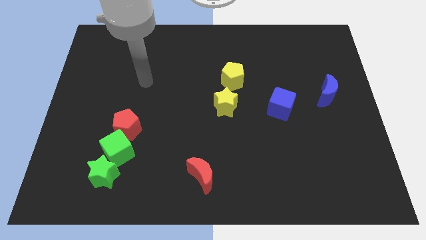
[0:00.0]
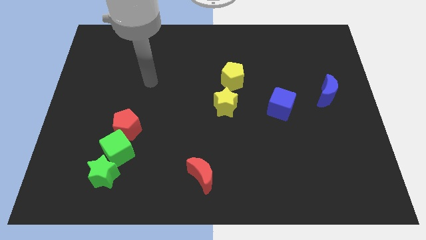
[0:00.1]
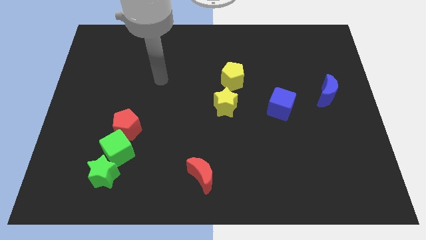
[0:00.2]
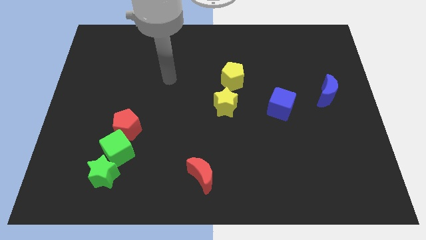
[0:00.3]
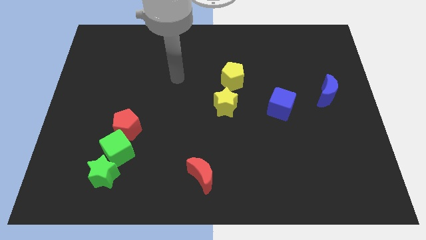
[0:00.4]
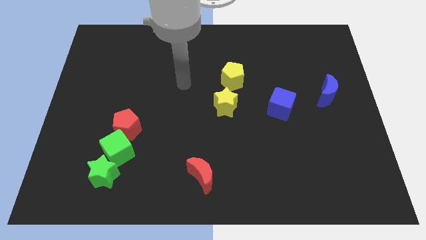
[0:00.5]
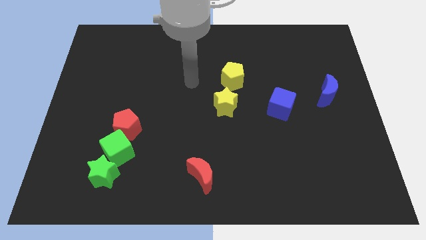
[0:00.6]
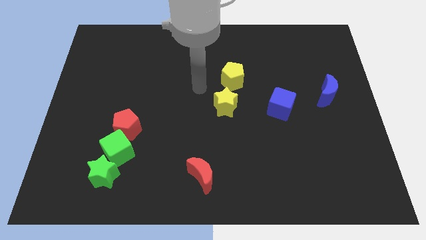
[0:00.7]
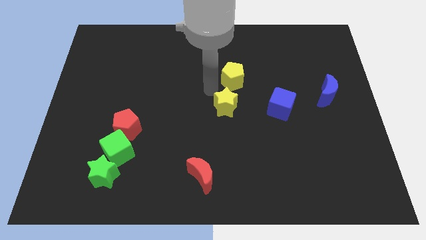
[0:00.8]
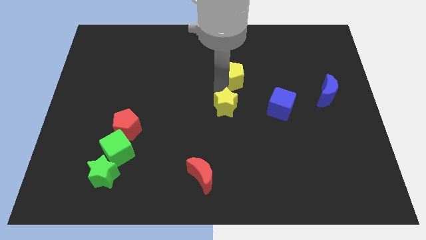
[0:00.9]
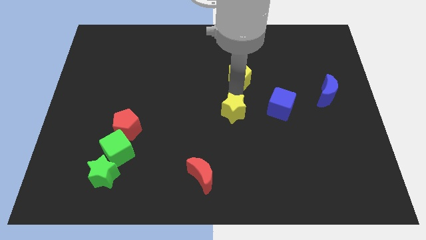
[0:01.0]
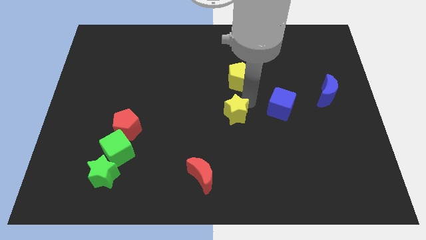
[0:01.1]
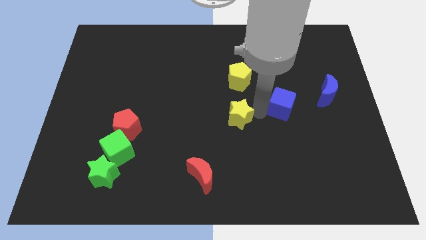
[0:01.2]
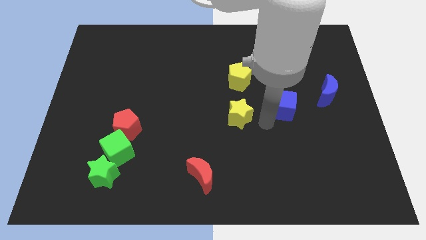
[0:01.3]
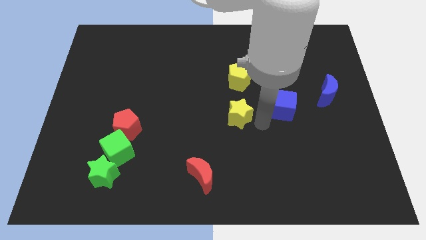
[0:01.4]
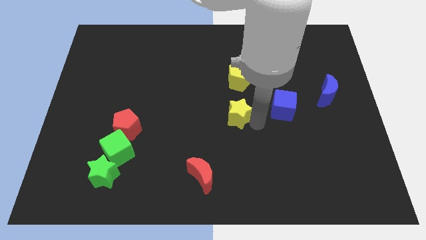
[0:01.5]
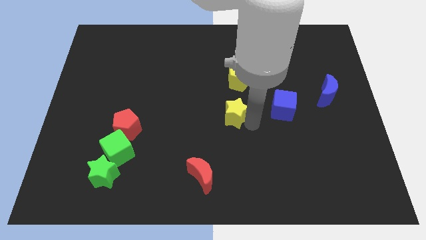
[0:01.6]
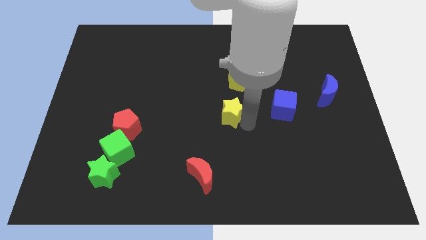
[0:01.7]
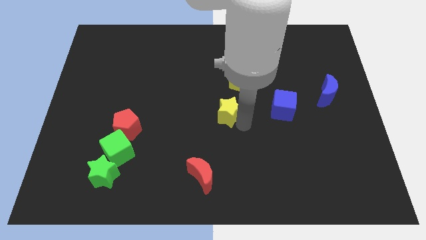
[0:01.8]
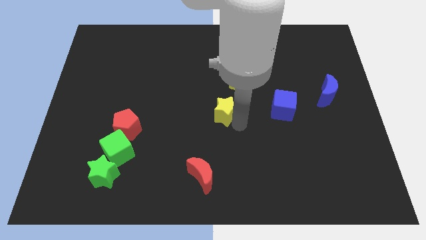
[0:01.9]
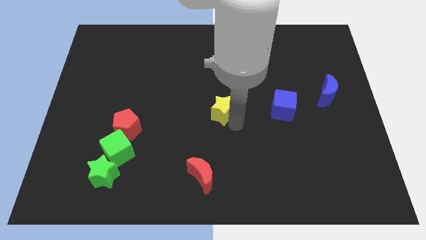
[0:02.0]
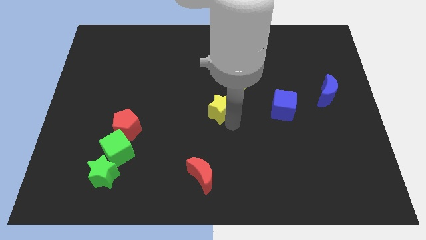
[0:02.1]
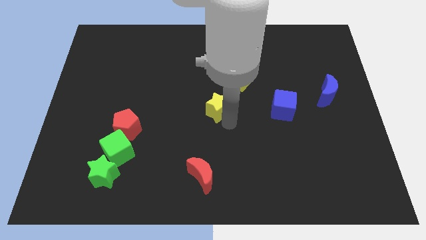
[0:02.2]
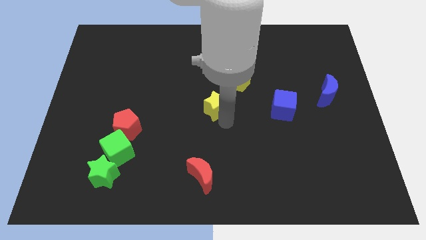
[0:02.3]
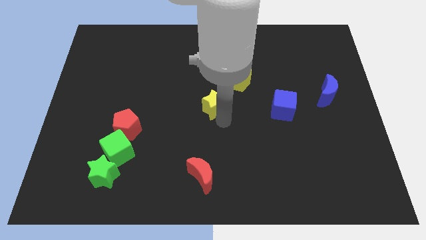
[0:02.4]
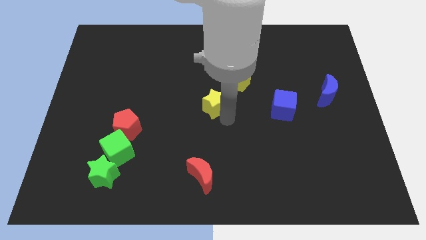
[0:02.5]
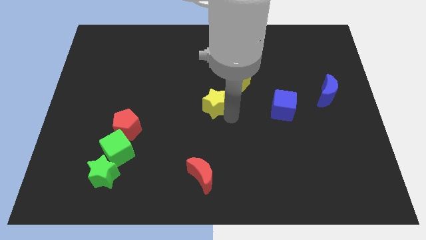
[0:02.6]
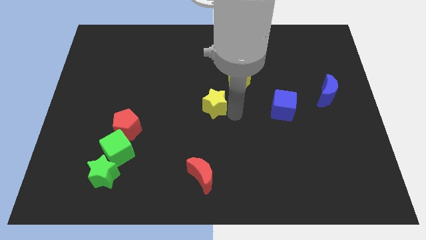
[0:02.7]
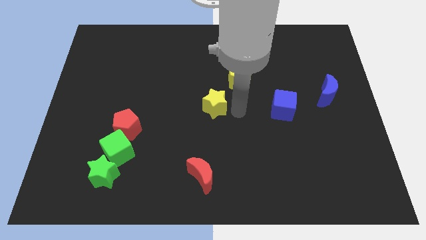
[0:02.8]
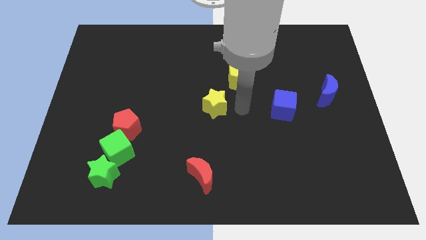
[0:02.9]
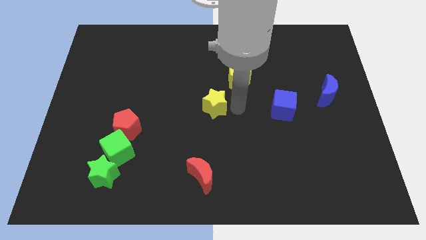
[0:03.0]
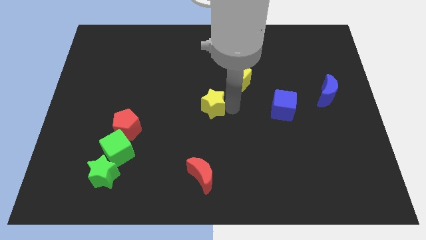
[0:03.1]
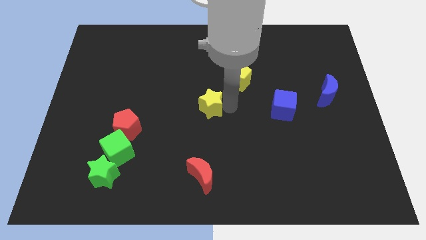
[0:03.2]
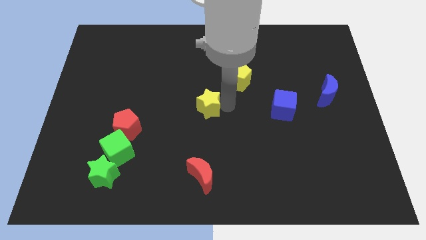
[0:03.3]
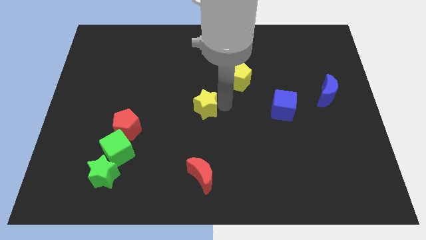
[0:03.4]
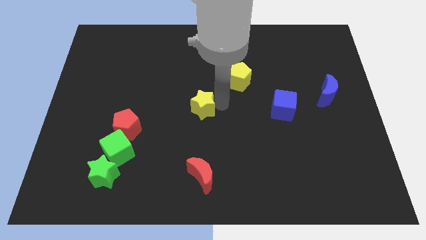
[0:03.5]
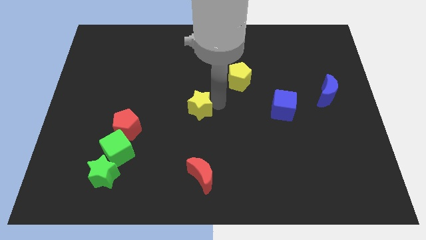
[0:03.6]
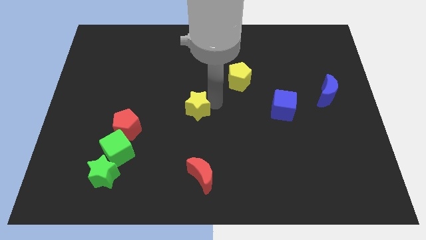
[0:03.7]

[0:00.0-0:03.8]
move the yellow star left a little bit

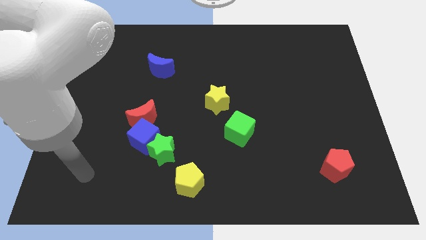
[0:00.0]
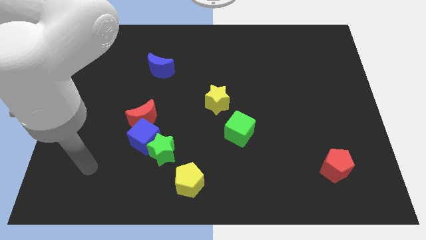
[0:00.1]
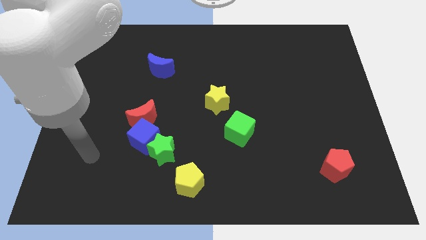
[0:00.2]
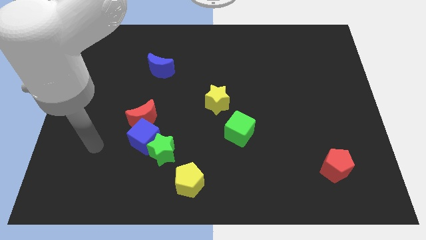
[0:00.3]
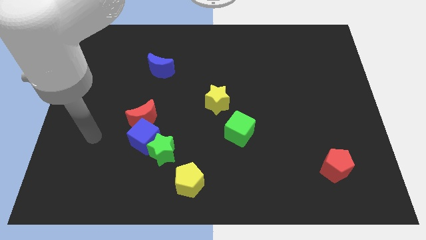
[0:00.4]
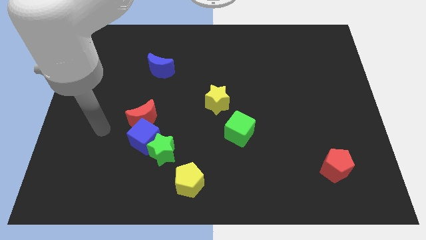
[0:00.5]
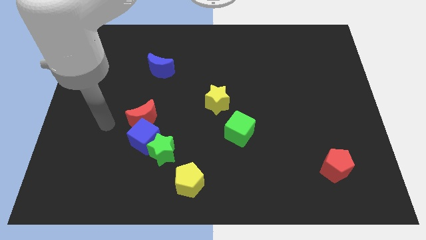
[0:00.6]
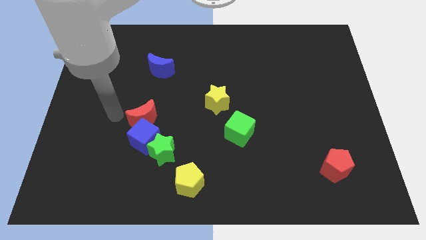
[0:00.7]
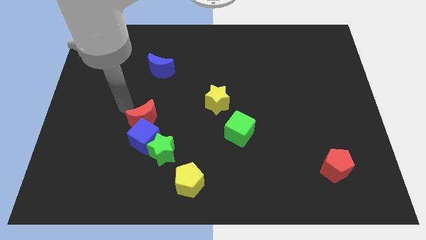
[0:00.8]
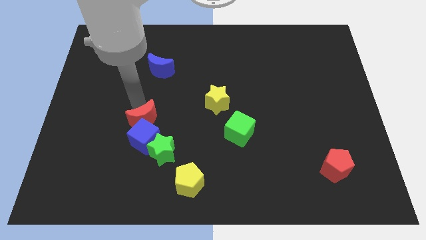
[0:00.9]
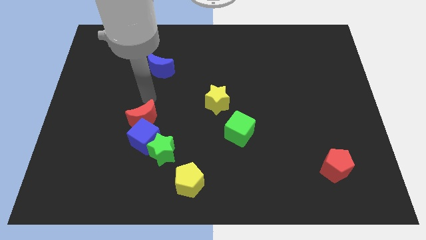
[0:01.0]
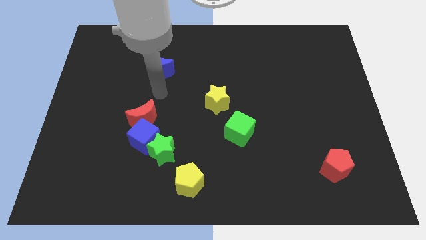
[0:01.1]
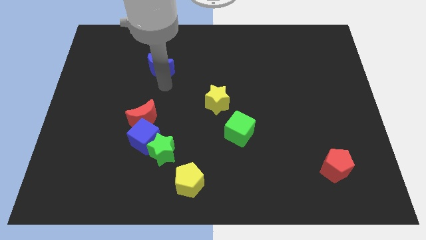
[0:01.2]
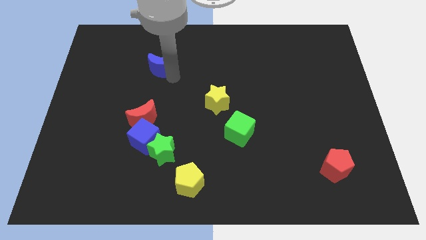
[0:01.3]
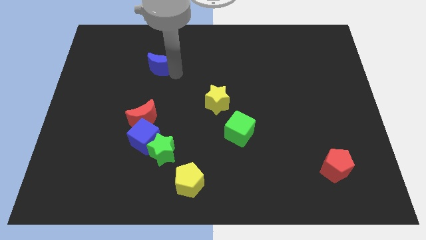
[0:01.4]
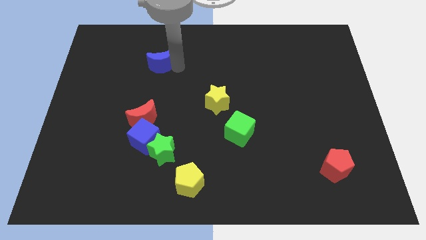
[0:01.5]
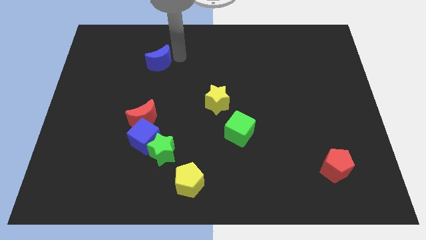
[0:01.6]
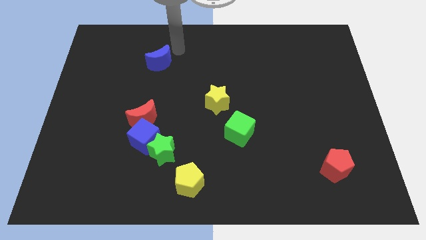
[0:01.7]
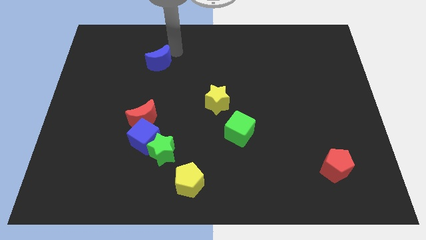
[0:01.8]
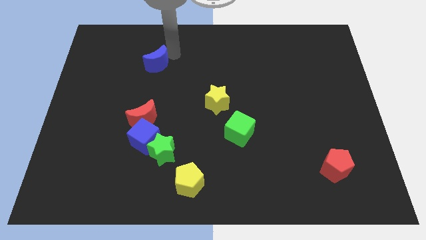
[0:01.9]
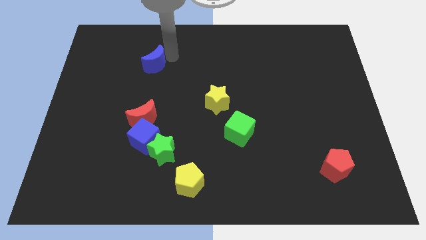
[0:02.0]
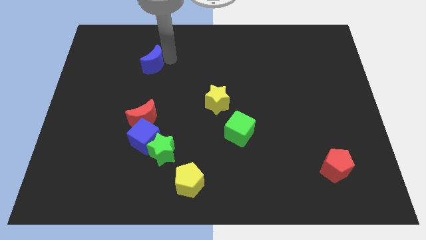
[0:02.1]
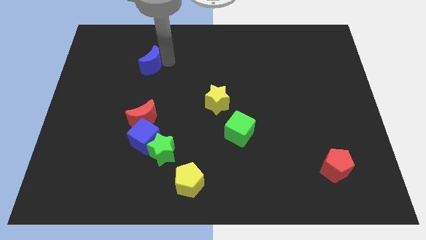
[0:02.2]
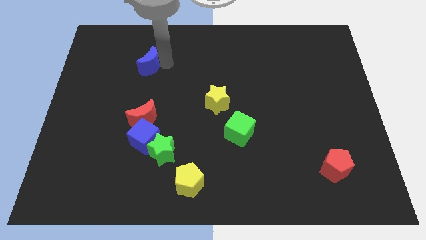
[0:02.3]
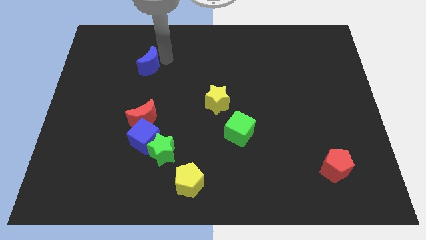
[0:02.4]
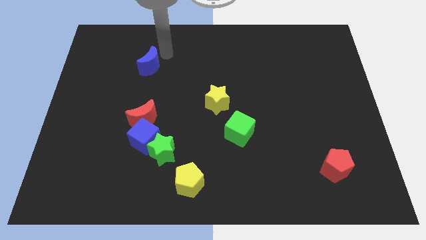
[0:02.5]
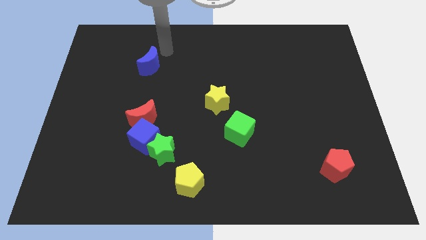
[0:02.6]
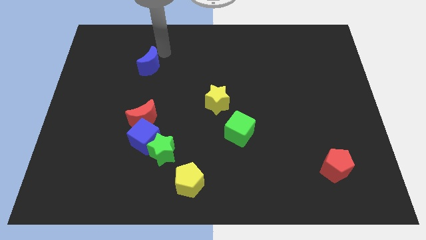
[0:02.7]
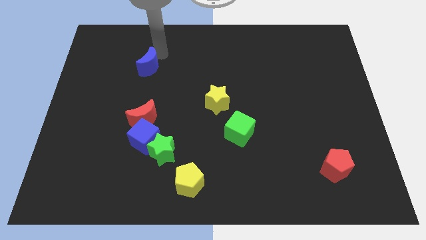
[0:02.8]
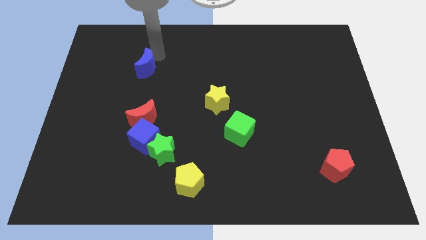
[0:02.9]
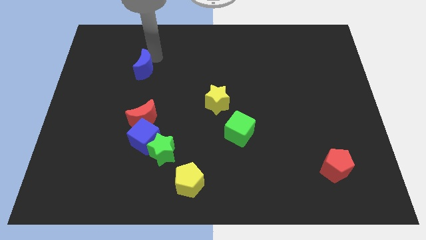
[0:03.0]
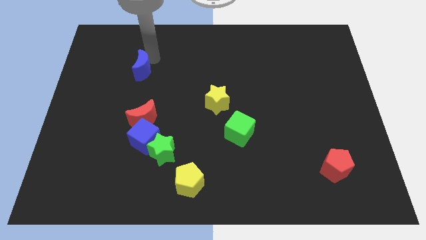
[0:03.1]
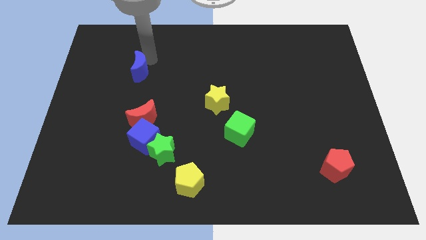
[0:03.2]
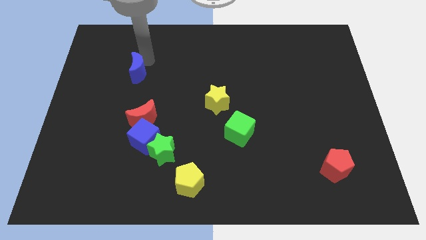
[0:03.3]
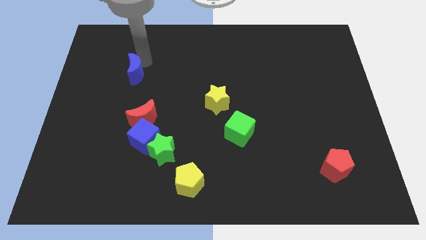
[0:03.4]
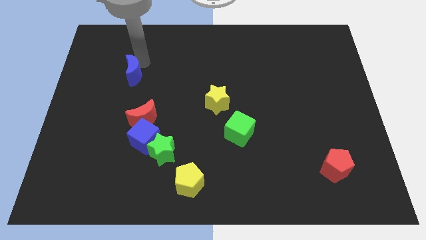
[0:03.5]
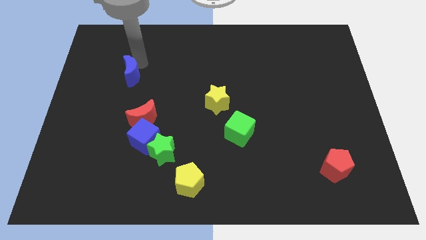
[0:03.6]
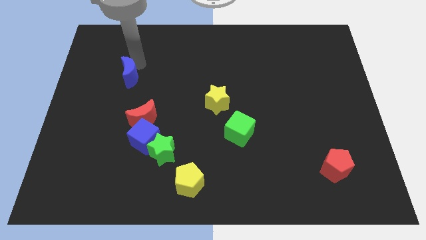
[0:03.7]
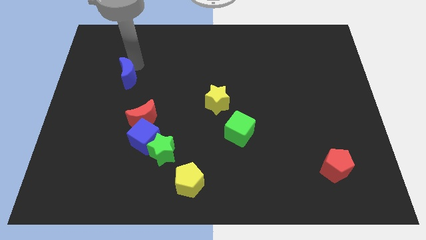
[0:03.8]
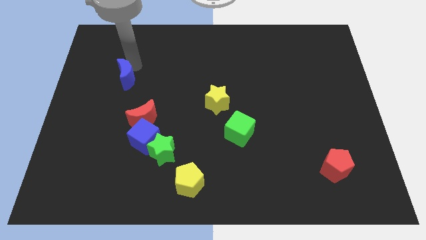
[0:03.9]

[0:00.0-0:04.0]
move the blue moon diagonally down and to the left somewhat
